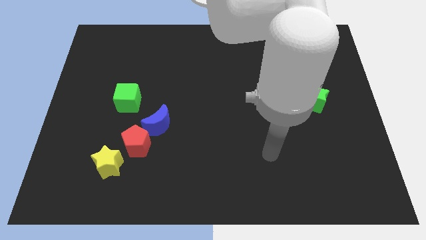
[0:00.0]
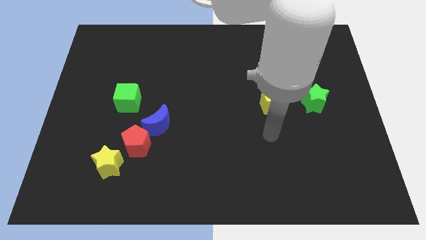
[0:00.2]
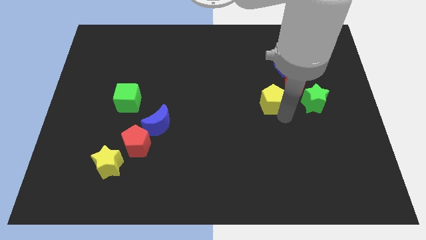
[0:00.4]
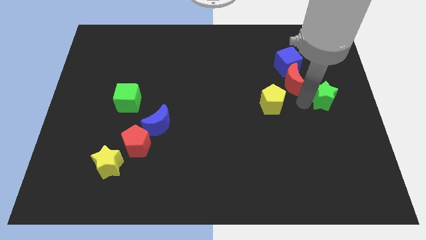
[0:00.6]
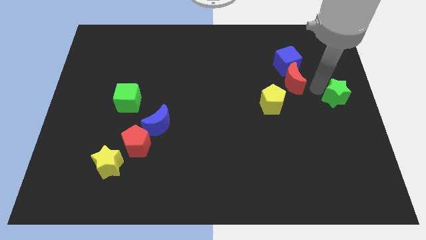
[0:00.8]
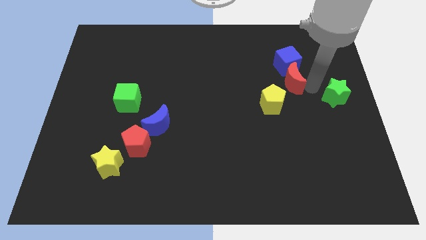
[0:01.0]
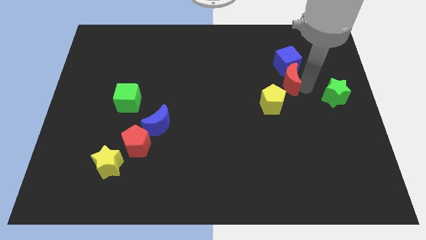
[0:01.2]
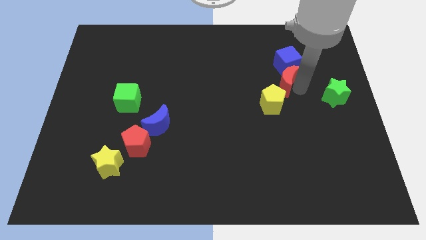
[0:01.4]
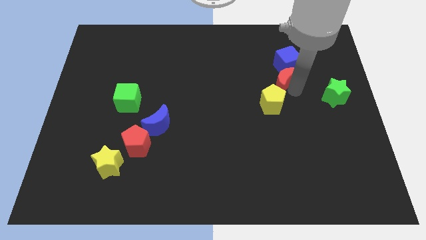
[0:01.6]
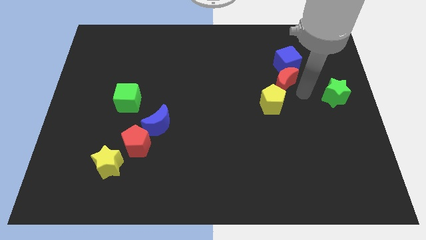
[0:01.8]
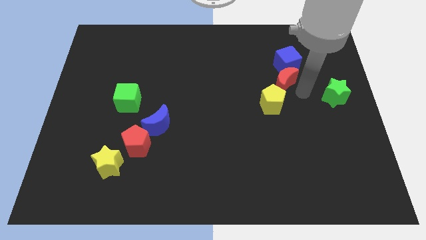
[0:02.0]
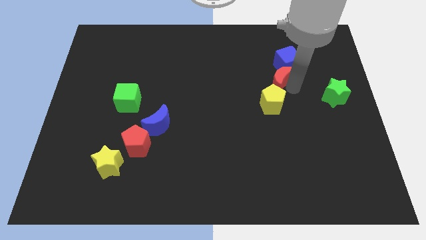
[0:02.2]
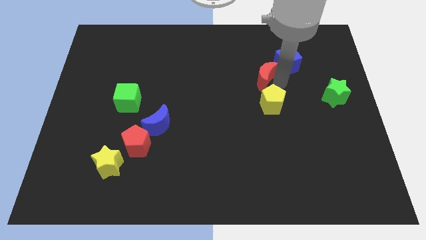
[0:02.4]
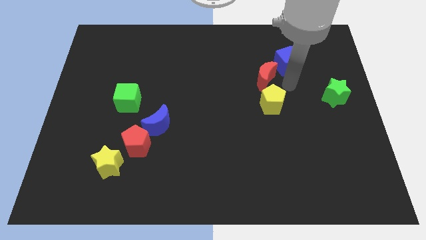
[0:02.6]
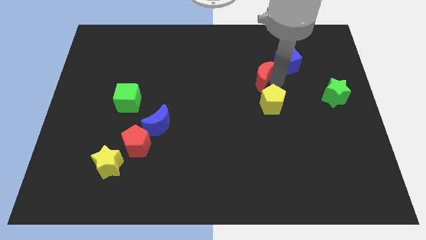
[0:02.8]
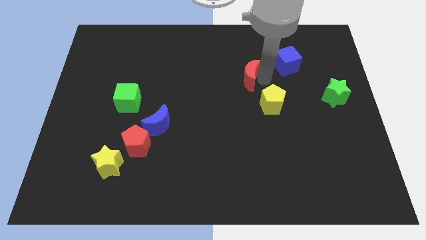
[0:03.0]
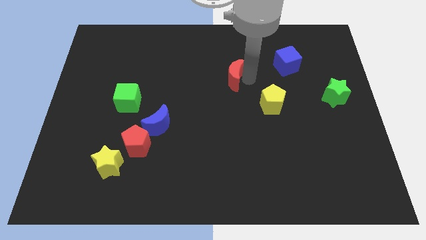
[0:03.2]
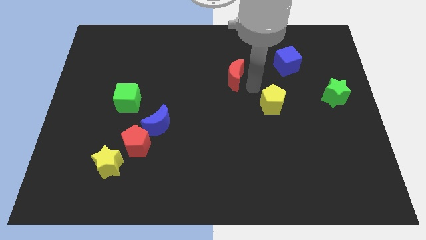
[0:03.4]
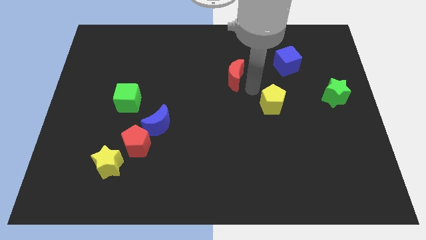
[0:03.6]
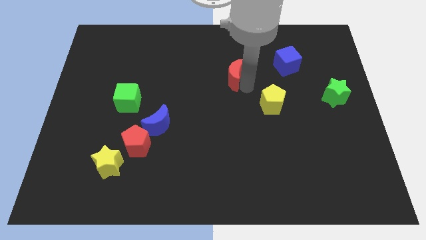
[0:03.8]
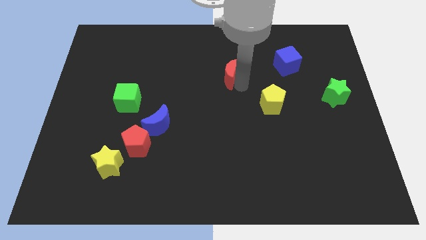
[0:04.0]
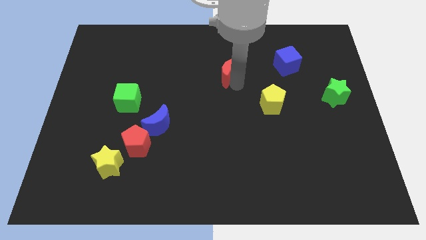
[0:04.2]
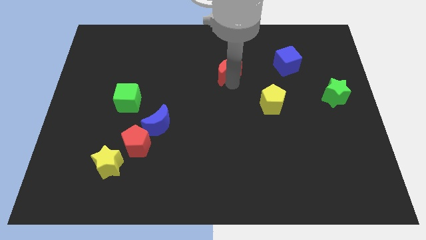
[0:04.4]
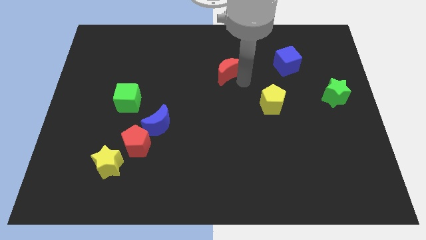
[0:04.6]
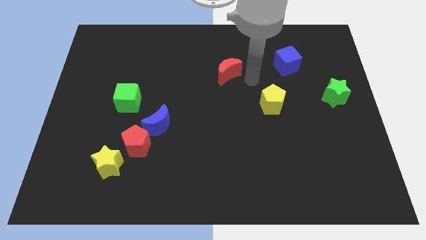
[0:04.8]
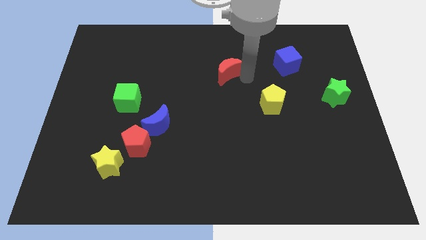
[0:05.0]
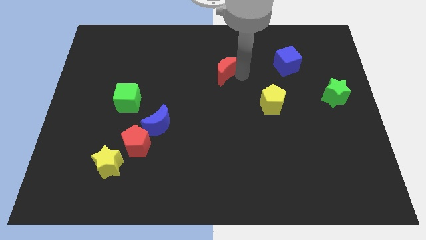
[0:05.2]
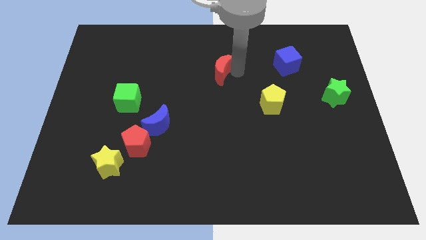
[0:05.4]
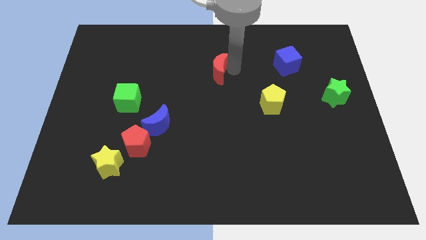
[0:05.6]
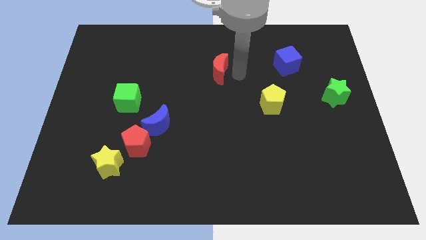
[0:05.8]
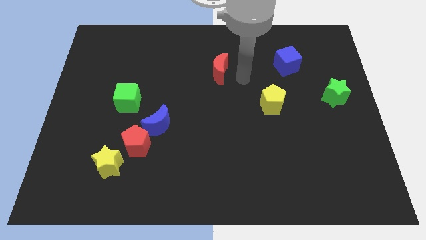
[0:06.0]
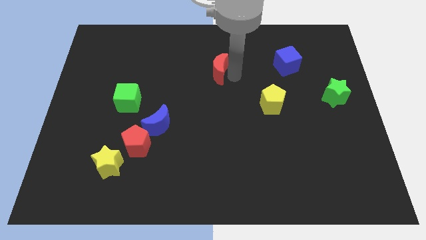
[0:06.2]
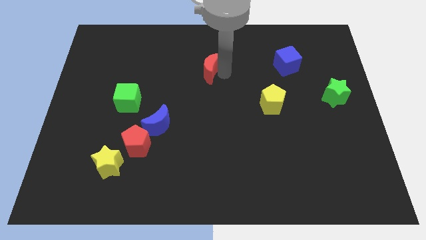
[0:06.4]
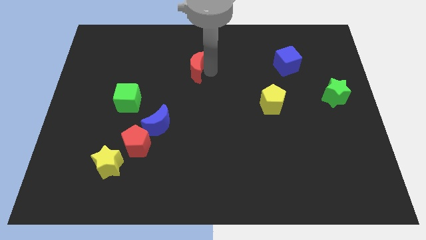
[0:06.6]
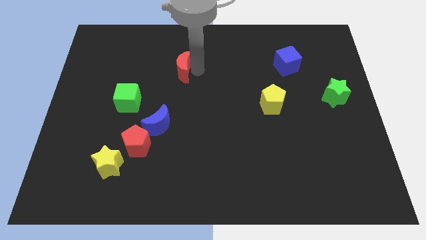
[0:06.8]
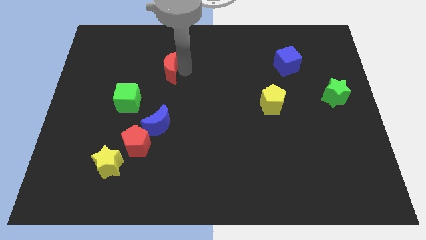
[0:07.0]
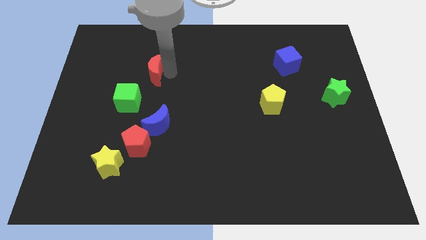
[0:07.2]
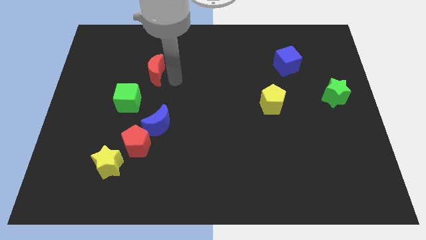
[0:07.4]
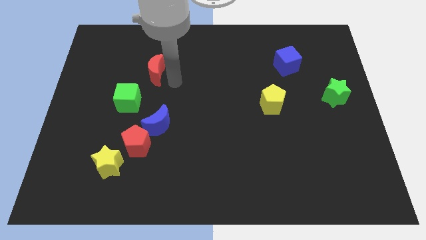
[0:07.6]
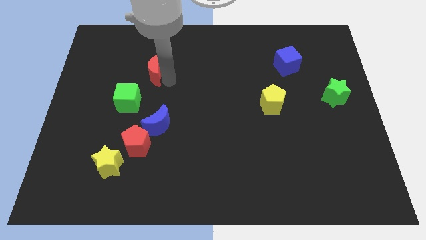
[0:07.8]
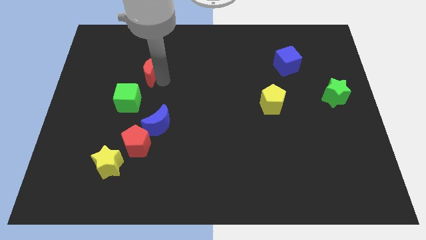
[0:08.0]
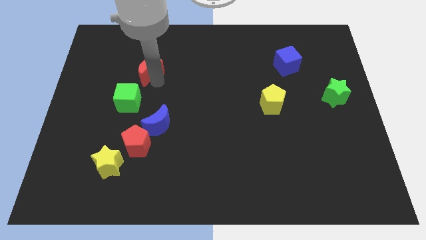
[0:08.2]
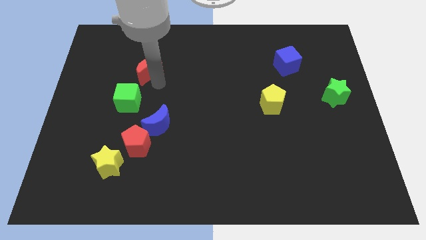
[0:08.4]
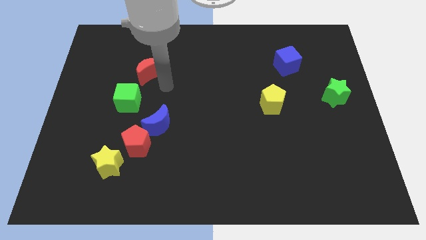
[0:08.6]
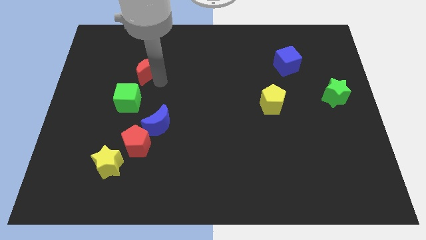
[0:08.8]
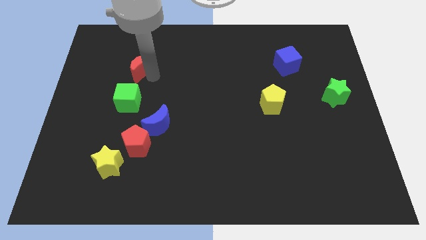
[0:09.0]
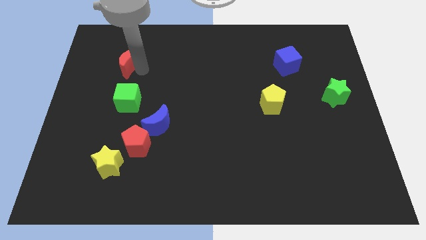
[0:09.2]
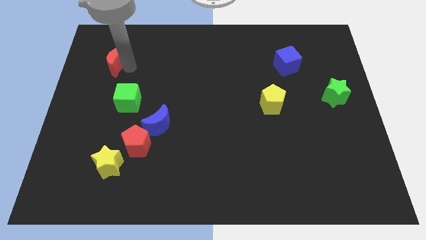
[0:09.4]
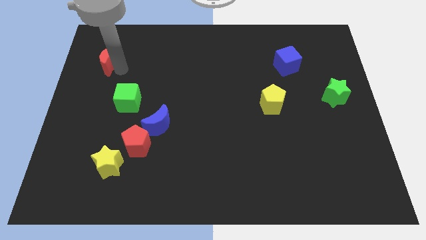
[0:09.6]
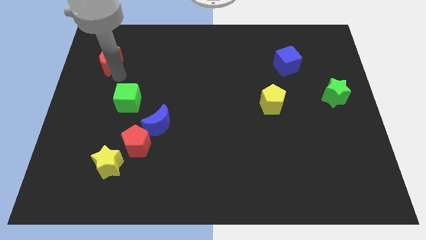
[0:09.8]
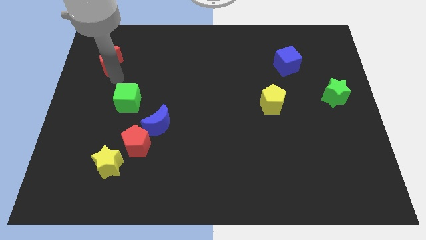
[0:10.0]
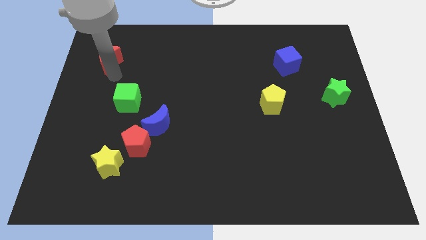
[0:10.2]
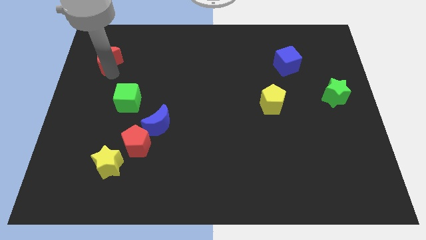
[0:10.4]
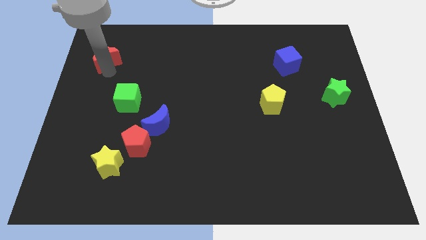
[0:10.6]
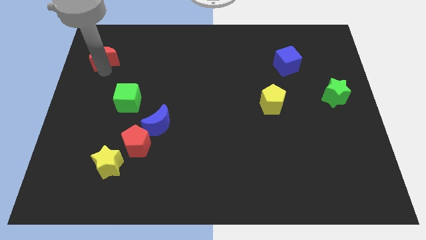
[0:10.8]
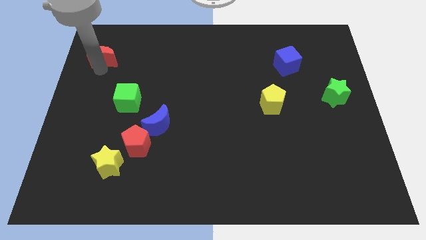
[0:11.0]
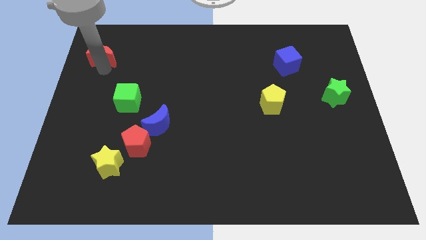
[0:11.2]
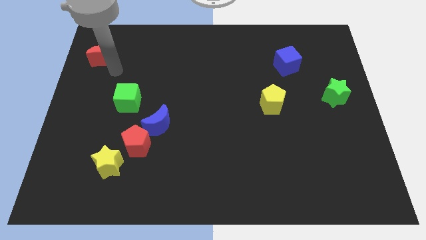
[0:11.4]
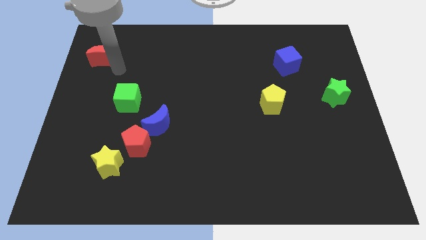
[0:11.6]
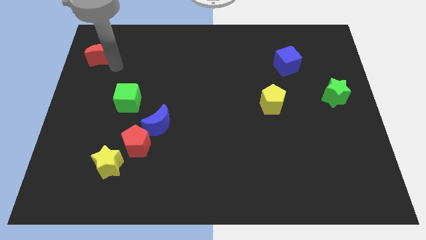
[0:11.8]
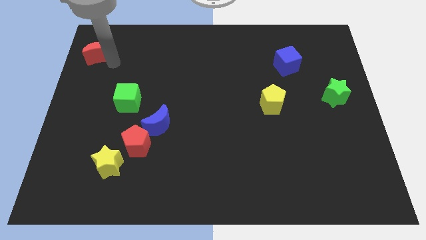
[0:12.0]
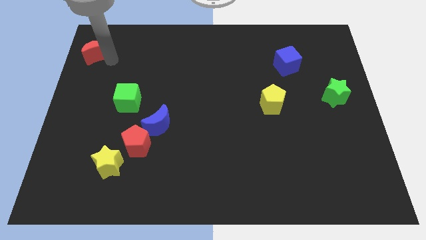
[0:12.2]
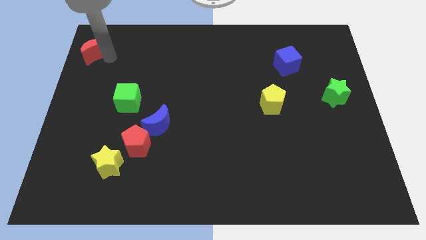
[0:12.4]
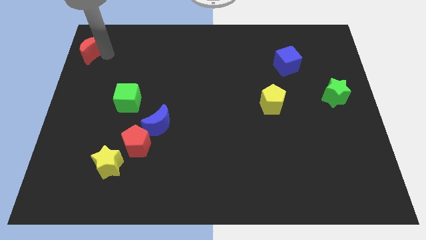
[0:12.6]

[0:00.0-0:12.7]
move the red moon to the top left corner
